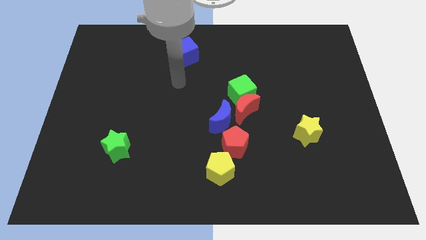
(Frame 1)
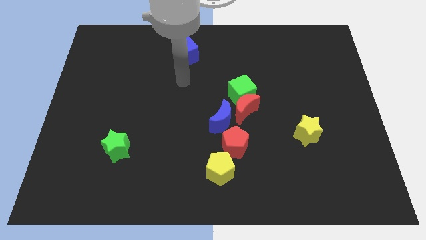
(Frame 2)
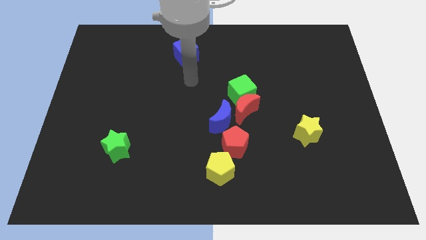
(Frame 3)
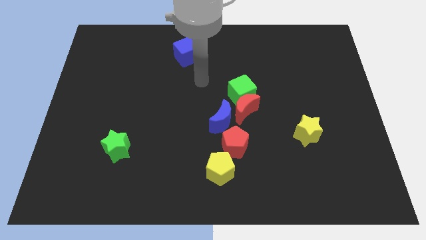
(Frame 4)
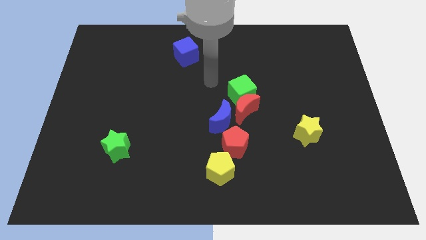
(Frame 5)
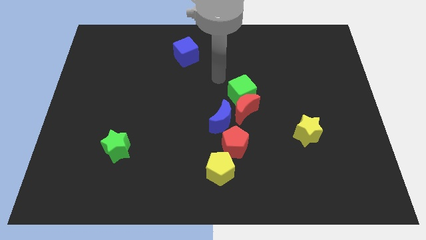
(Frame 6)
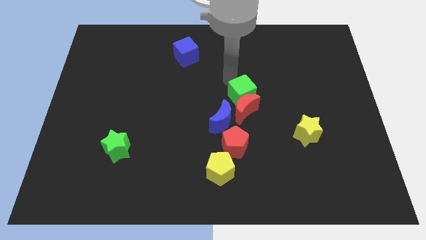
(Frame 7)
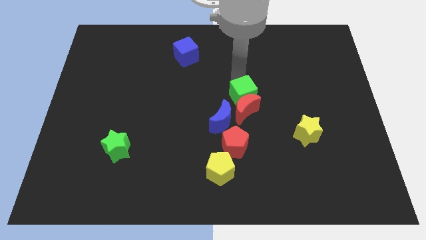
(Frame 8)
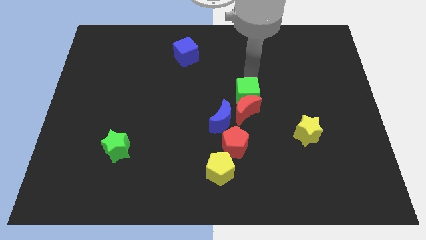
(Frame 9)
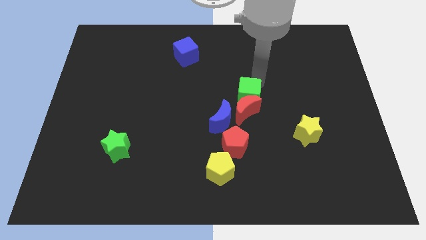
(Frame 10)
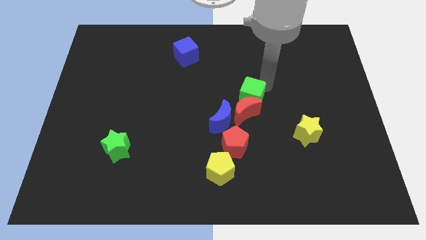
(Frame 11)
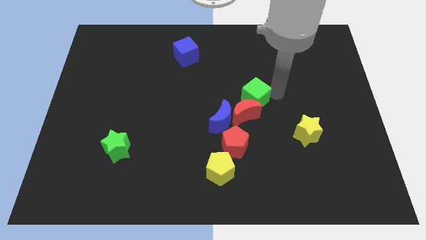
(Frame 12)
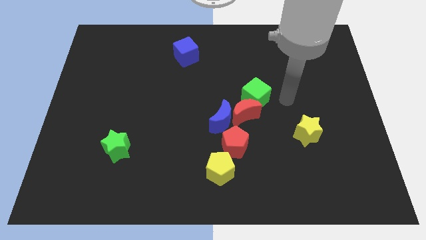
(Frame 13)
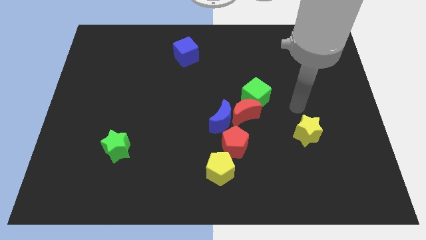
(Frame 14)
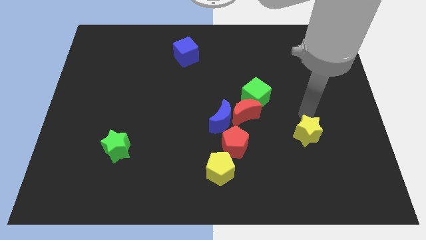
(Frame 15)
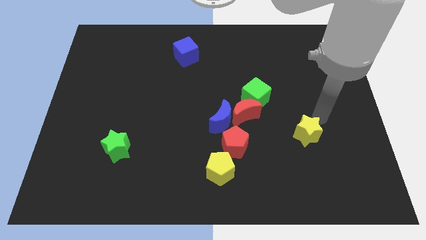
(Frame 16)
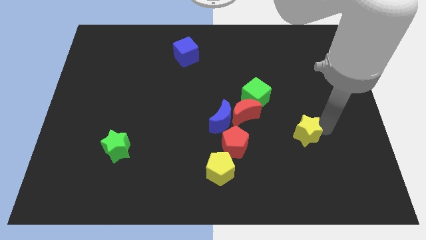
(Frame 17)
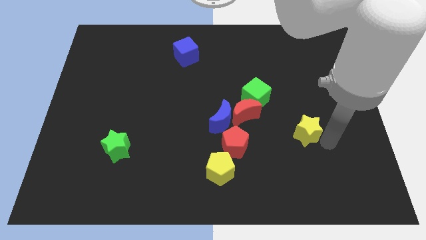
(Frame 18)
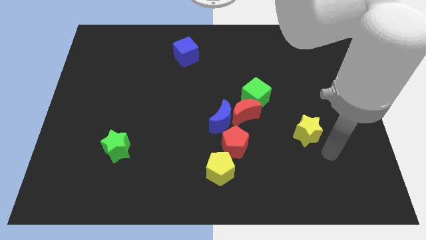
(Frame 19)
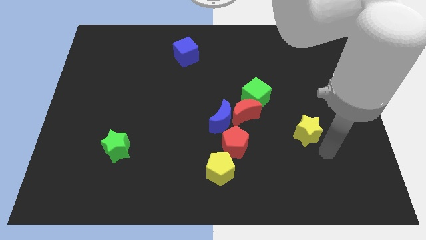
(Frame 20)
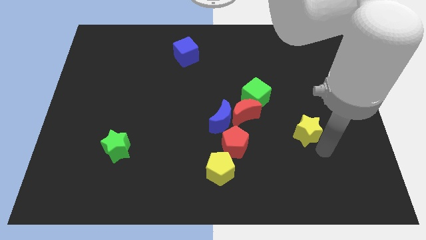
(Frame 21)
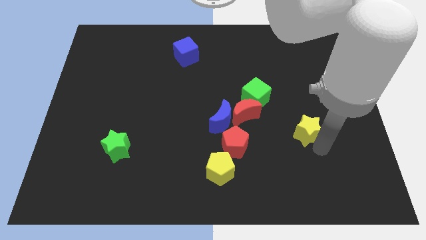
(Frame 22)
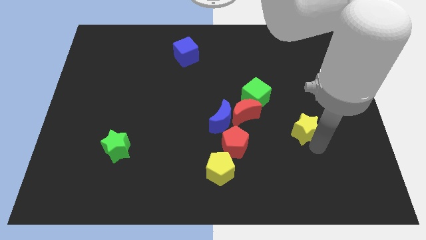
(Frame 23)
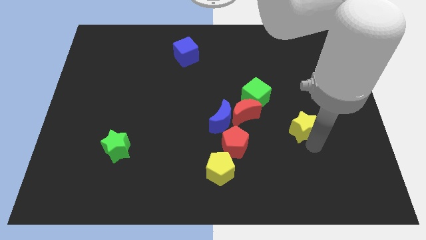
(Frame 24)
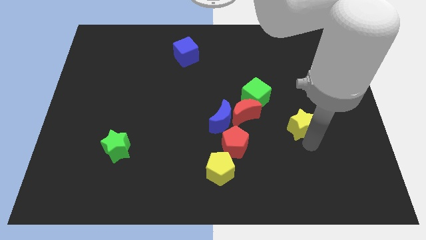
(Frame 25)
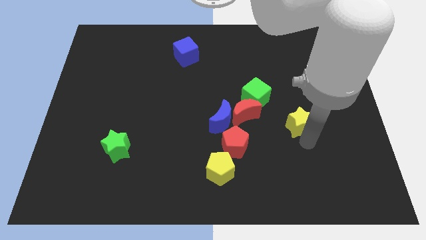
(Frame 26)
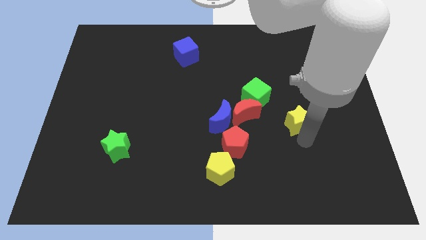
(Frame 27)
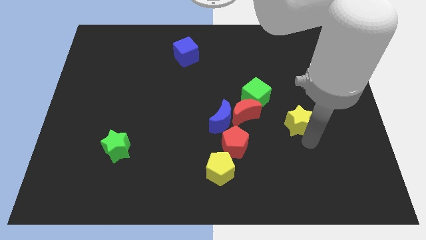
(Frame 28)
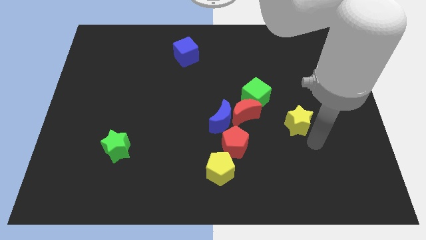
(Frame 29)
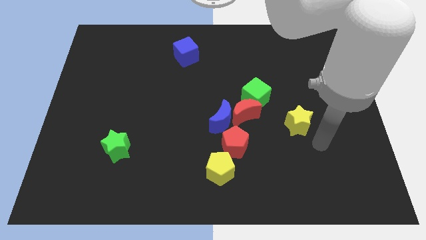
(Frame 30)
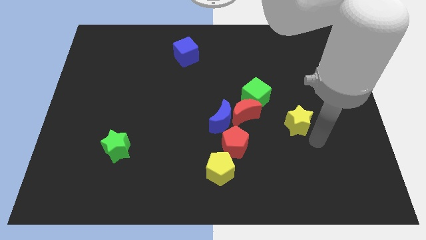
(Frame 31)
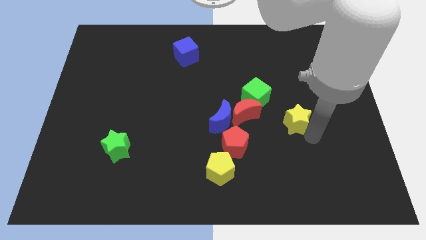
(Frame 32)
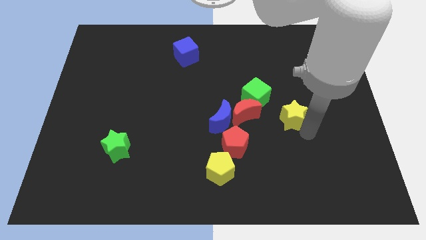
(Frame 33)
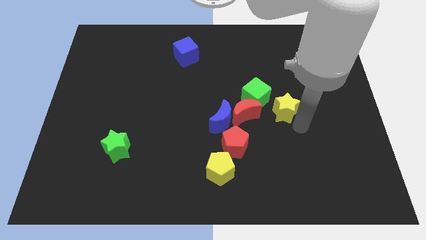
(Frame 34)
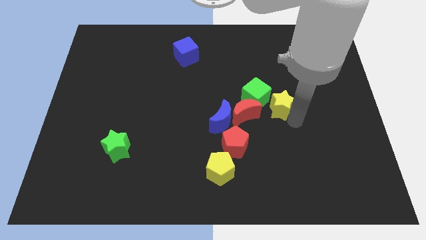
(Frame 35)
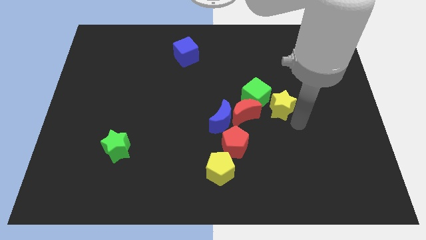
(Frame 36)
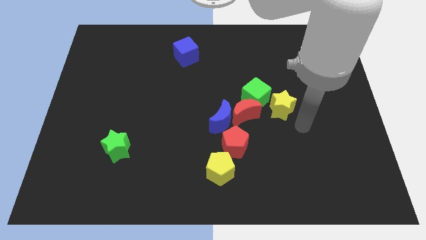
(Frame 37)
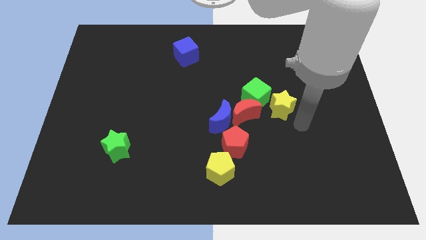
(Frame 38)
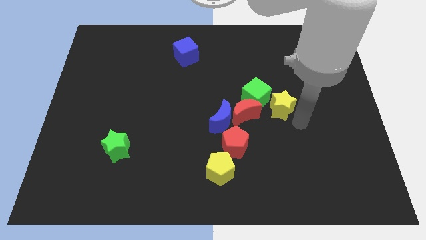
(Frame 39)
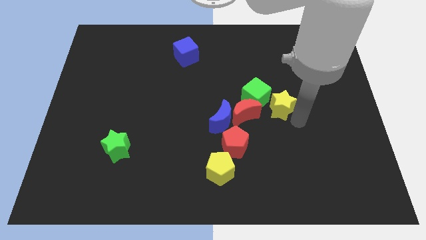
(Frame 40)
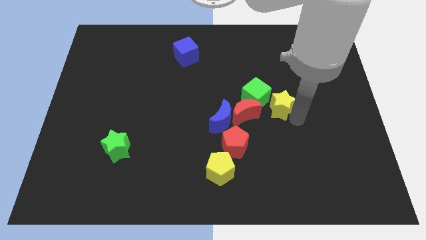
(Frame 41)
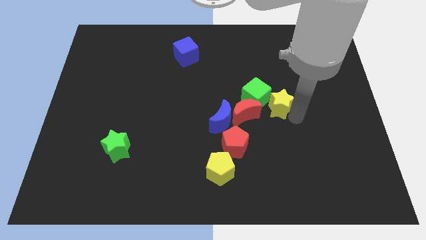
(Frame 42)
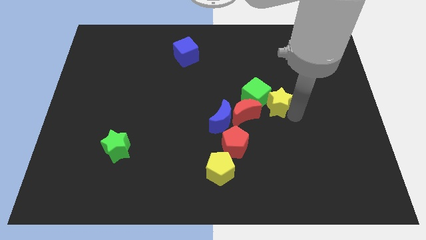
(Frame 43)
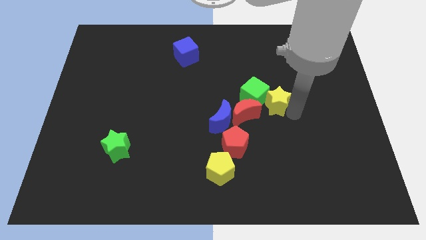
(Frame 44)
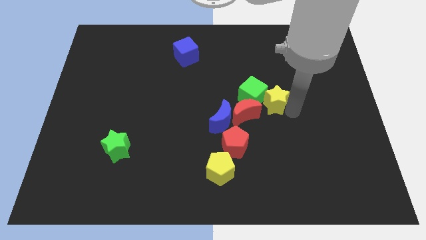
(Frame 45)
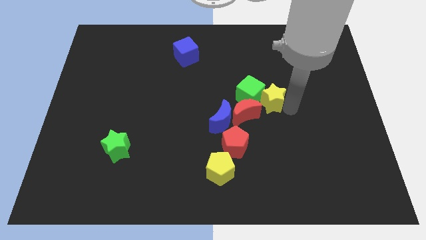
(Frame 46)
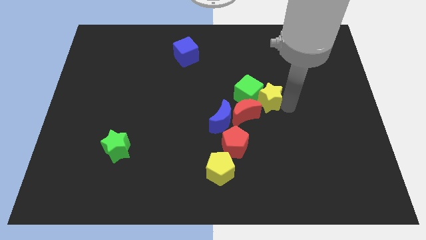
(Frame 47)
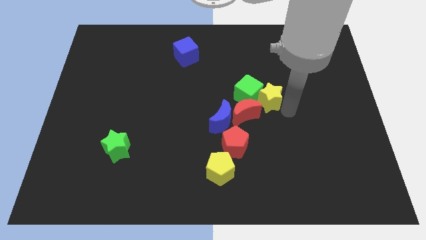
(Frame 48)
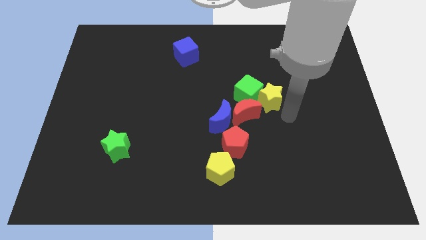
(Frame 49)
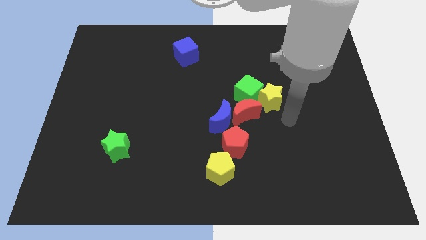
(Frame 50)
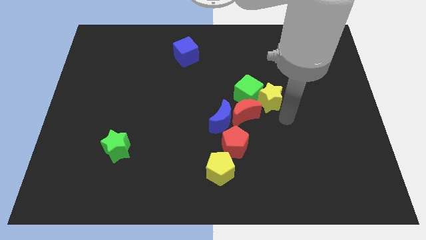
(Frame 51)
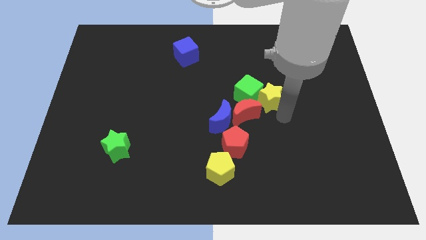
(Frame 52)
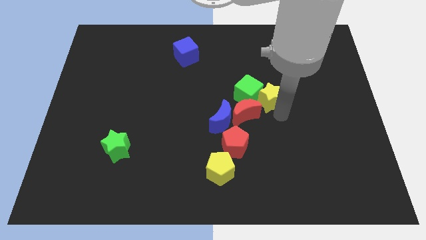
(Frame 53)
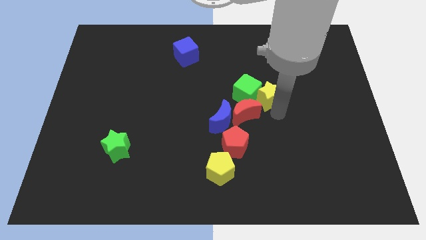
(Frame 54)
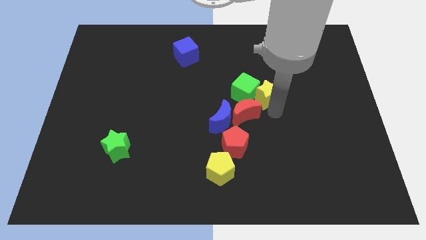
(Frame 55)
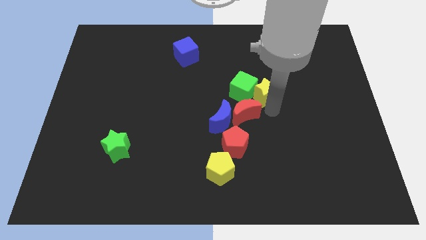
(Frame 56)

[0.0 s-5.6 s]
push the yellow star to the center of the board
